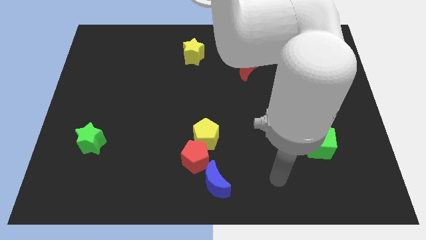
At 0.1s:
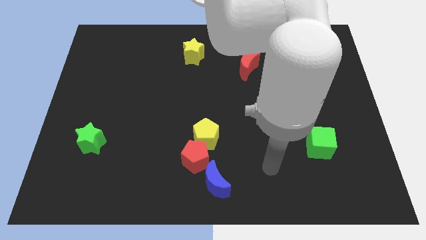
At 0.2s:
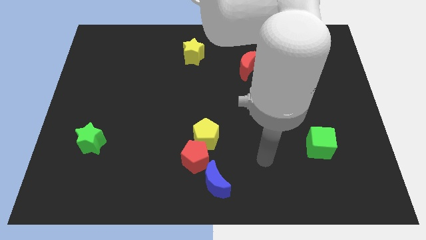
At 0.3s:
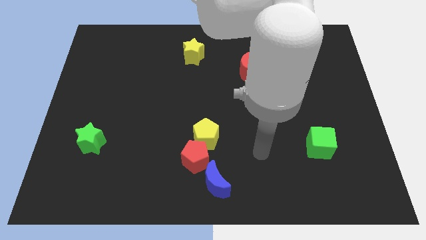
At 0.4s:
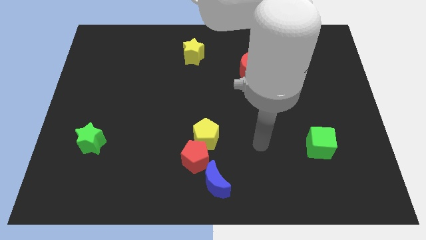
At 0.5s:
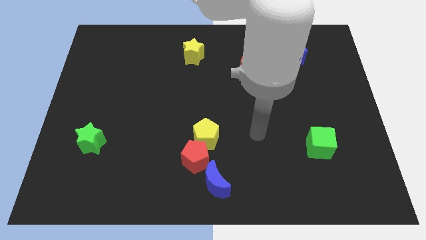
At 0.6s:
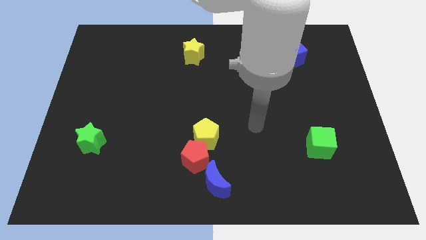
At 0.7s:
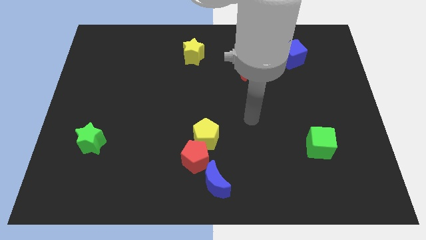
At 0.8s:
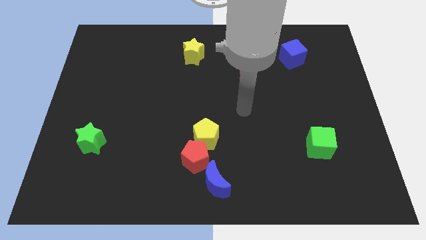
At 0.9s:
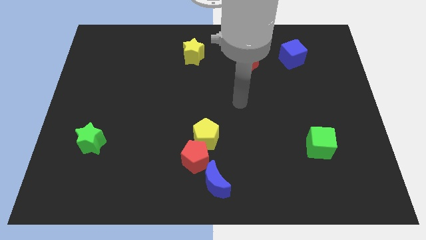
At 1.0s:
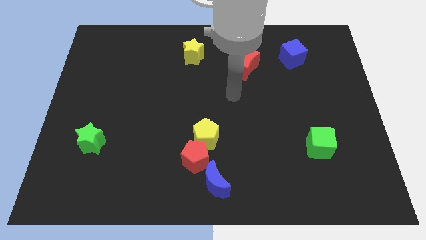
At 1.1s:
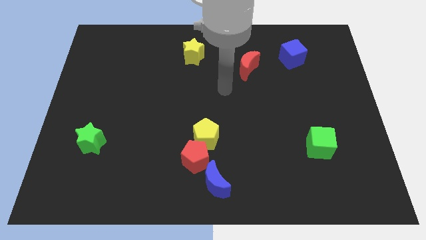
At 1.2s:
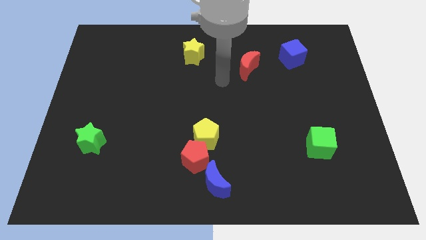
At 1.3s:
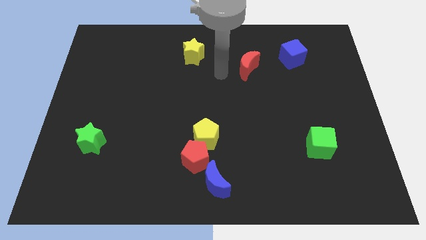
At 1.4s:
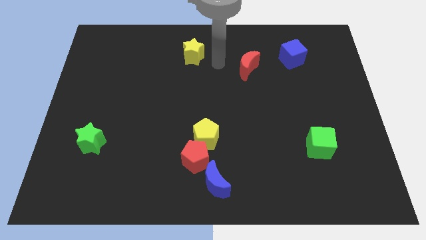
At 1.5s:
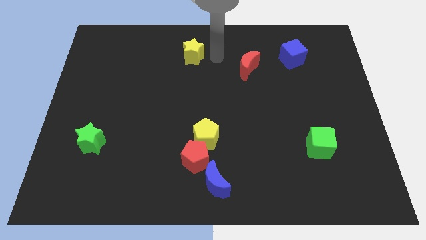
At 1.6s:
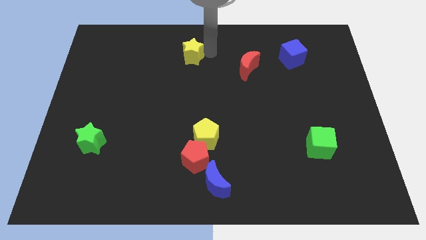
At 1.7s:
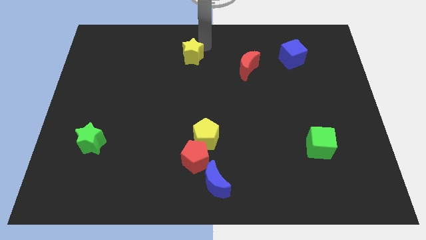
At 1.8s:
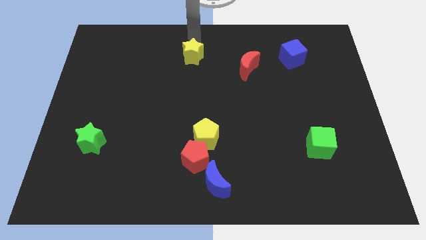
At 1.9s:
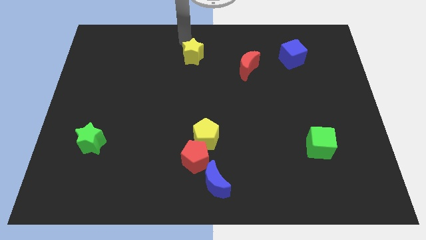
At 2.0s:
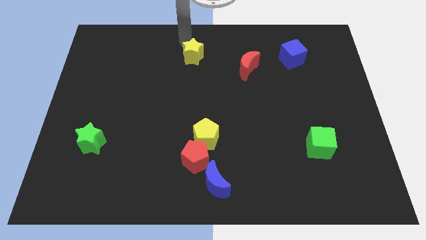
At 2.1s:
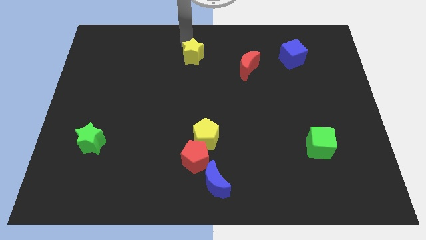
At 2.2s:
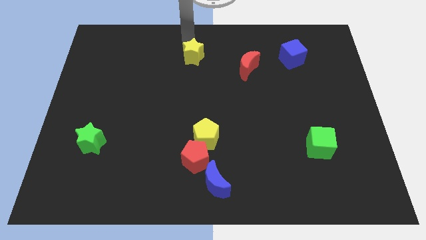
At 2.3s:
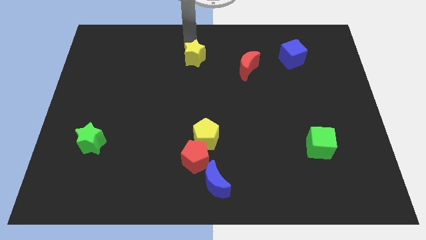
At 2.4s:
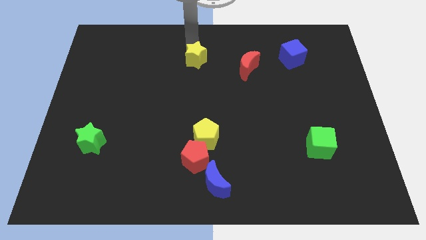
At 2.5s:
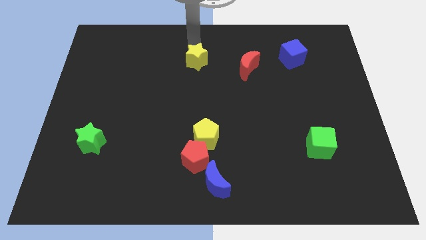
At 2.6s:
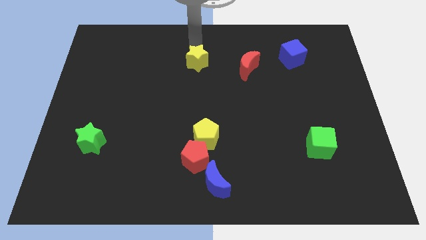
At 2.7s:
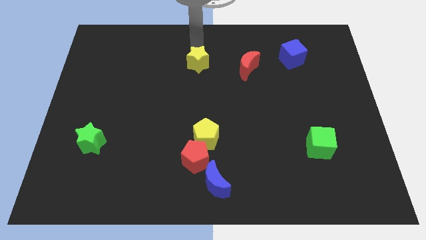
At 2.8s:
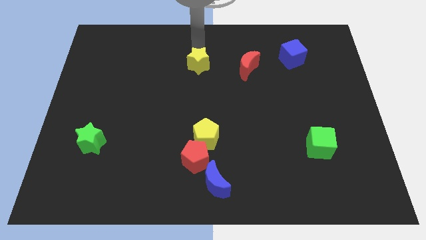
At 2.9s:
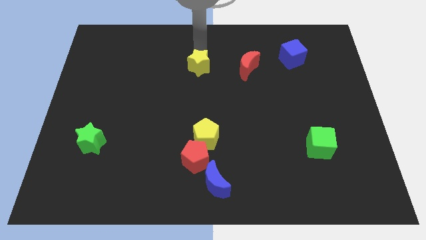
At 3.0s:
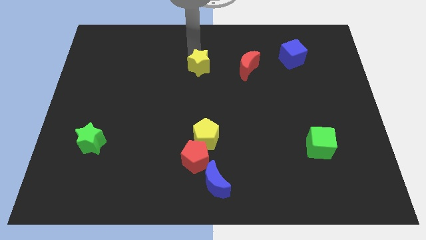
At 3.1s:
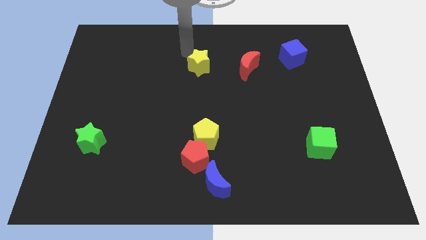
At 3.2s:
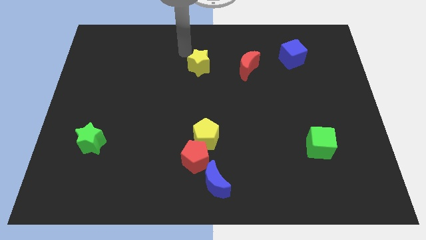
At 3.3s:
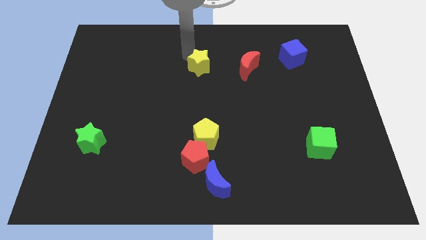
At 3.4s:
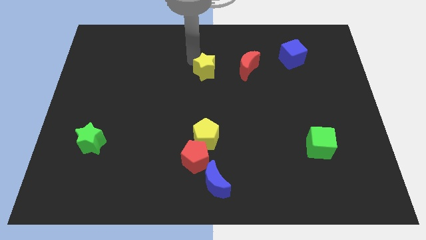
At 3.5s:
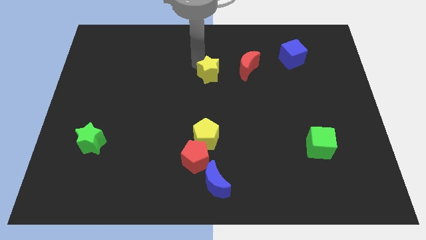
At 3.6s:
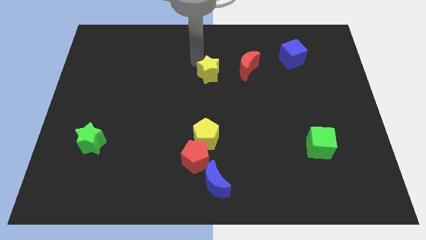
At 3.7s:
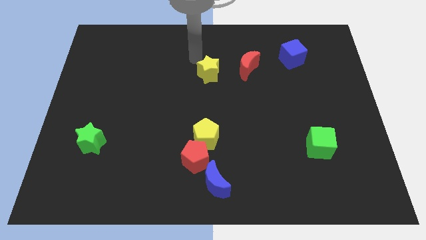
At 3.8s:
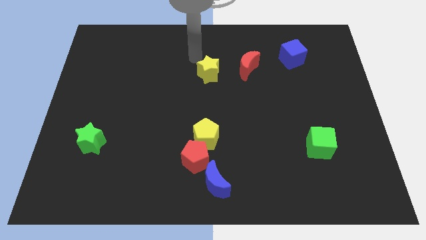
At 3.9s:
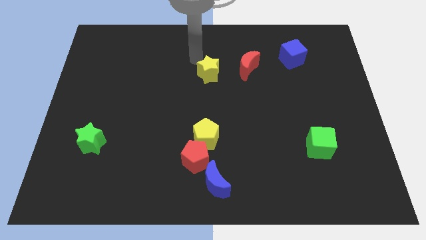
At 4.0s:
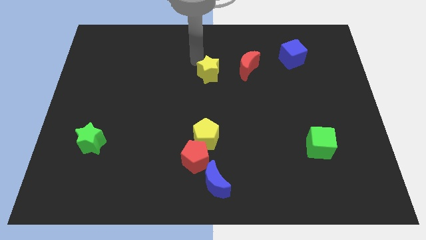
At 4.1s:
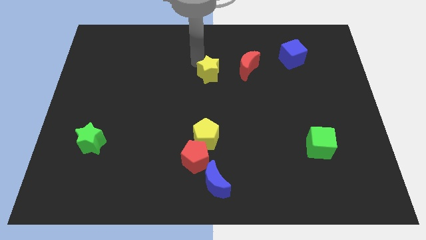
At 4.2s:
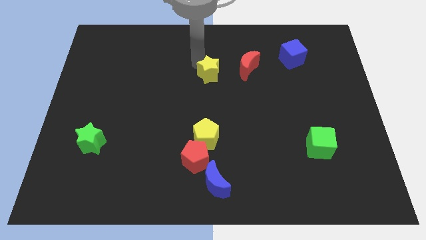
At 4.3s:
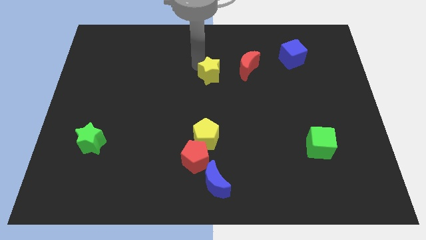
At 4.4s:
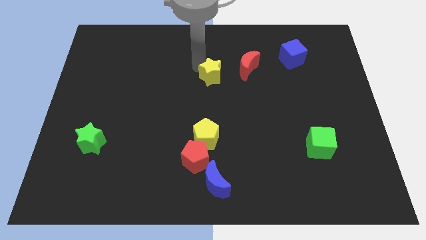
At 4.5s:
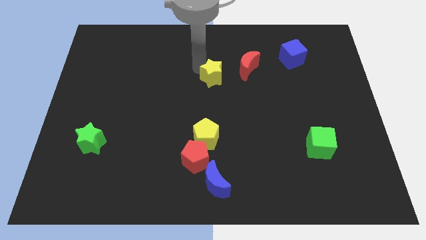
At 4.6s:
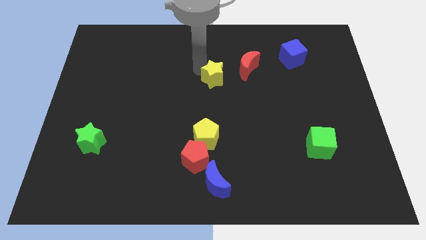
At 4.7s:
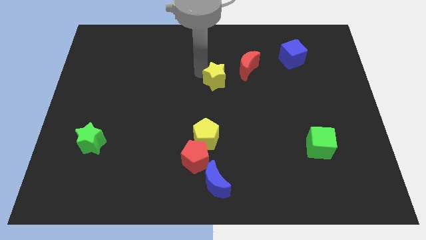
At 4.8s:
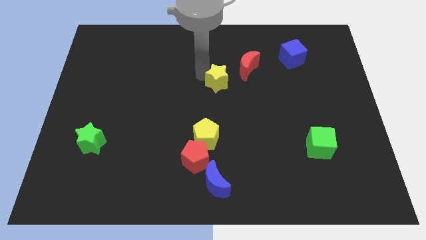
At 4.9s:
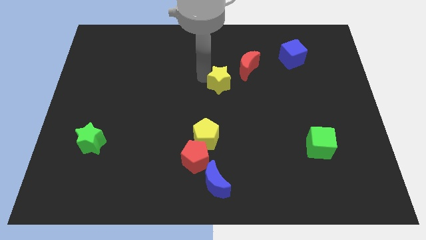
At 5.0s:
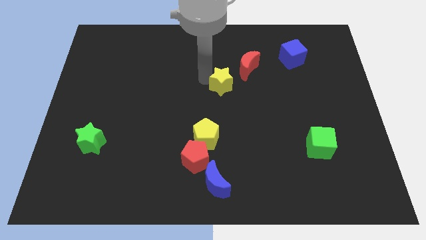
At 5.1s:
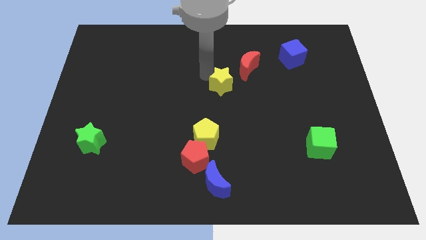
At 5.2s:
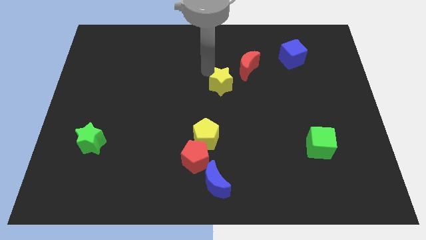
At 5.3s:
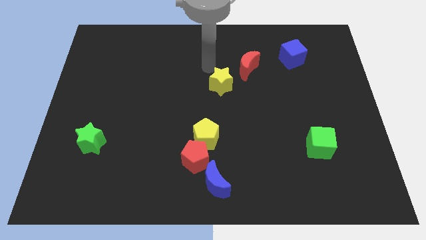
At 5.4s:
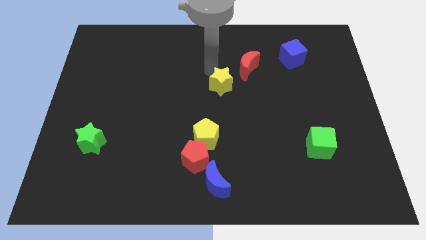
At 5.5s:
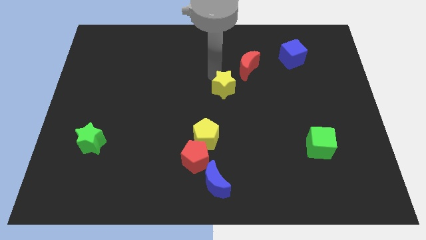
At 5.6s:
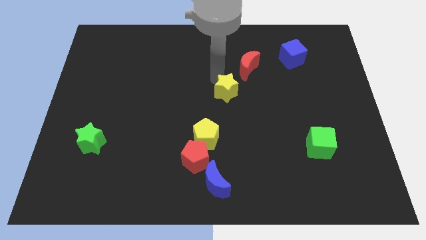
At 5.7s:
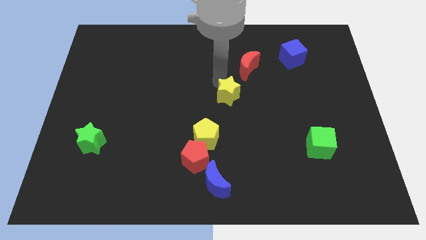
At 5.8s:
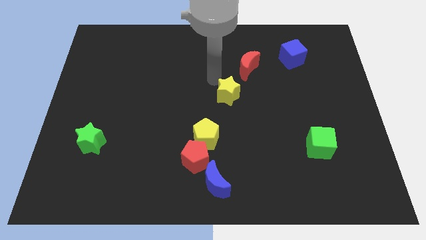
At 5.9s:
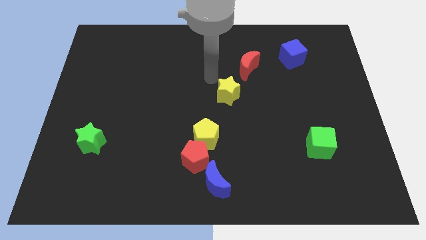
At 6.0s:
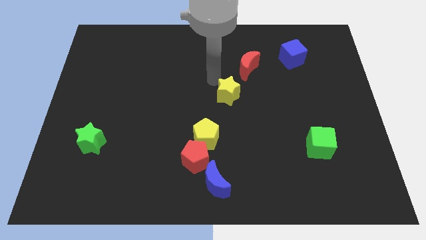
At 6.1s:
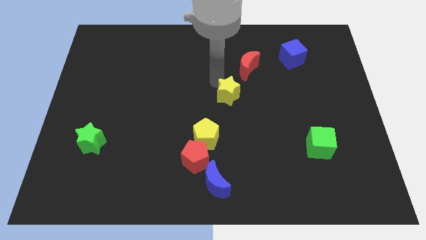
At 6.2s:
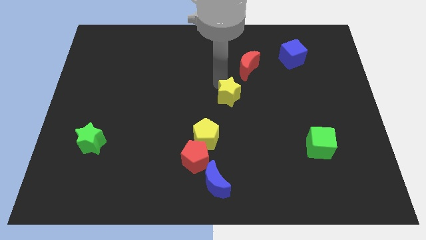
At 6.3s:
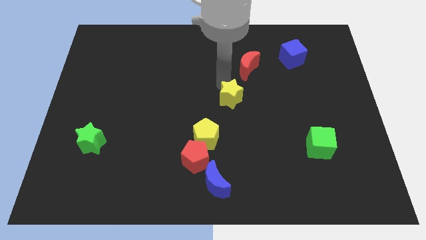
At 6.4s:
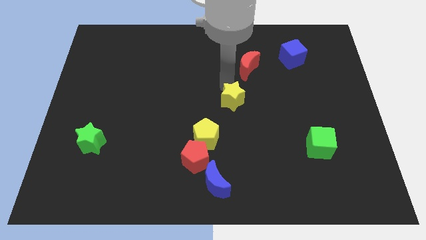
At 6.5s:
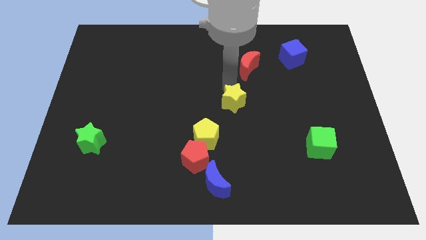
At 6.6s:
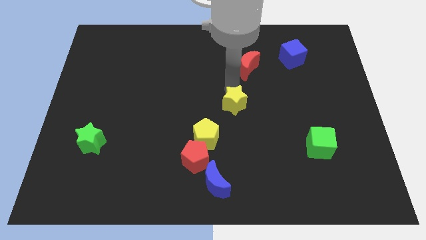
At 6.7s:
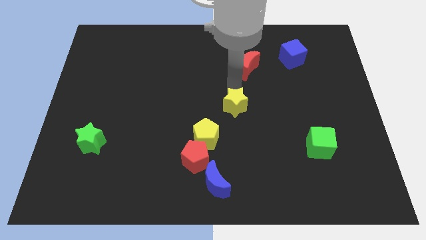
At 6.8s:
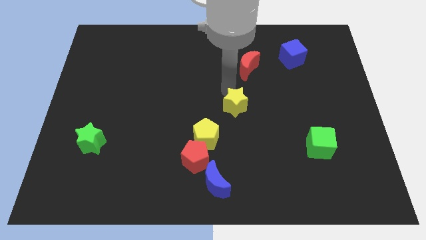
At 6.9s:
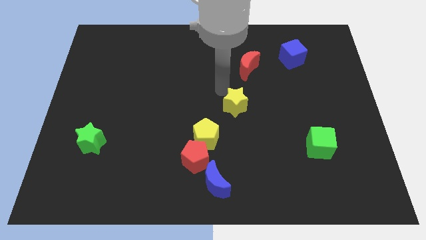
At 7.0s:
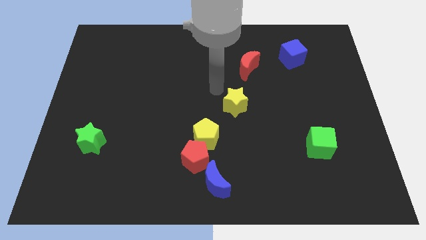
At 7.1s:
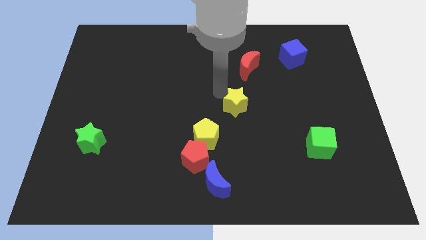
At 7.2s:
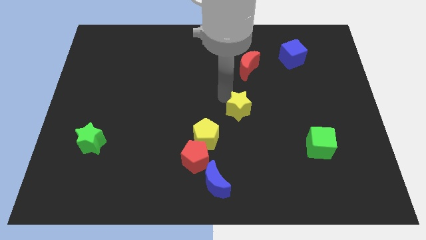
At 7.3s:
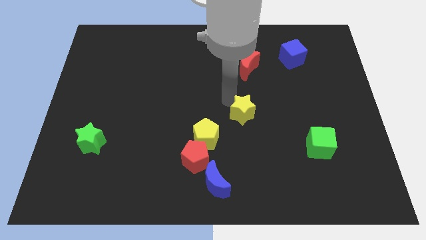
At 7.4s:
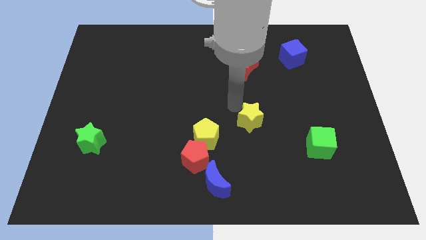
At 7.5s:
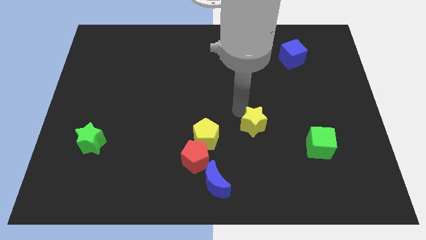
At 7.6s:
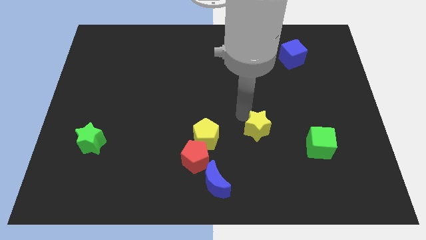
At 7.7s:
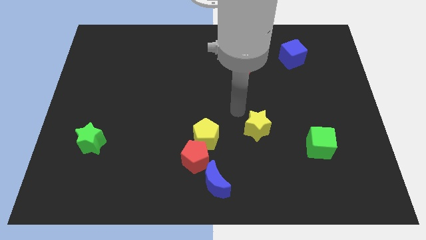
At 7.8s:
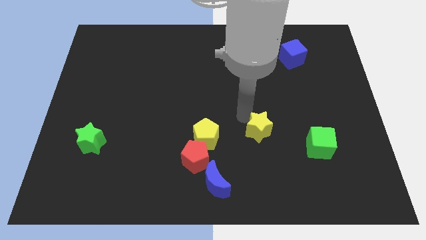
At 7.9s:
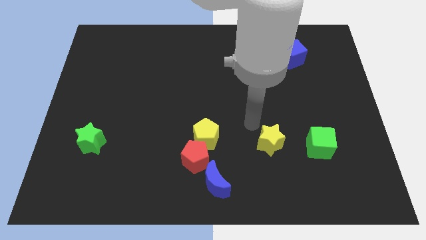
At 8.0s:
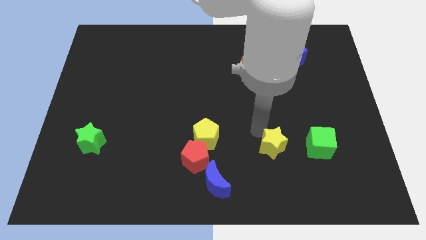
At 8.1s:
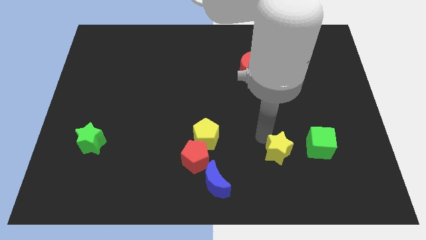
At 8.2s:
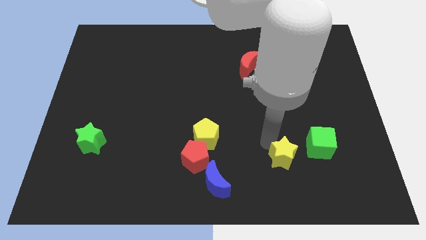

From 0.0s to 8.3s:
push the yellow star to the bottom left side of the green cube
